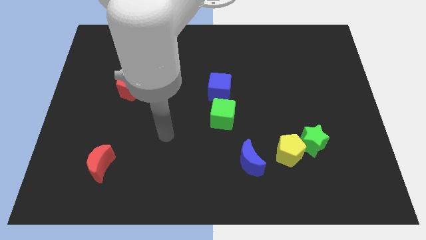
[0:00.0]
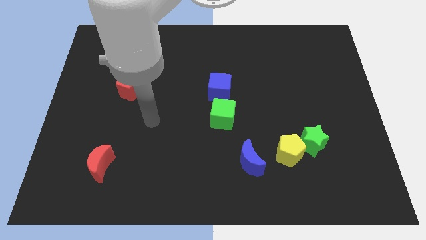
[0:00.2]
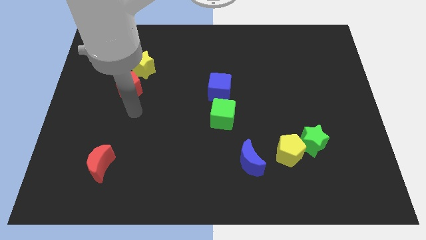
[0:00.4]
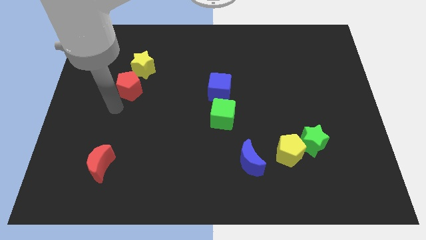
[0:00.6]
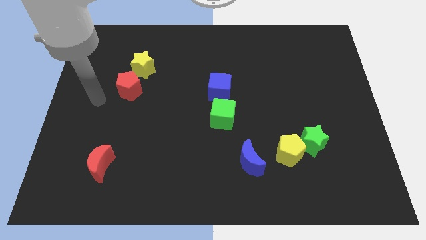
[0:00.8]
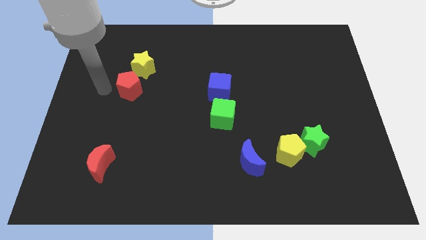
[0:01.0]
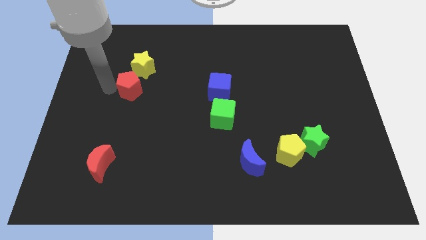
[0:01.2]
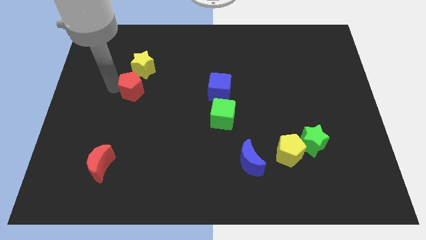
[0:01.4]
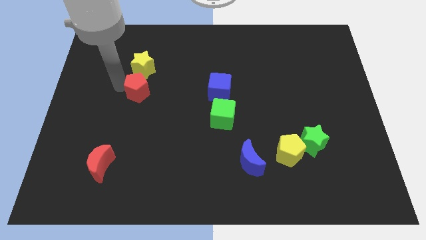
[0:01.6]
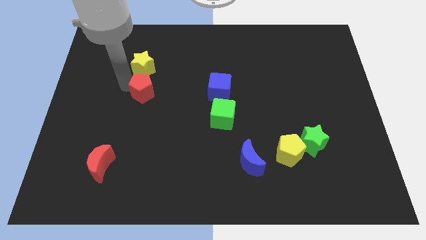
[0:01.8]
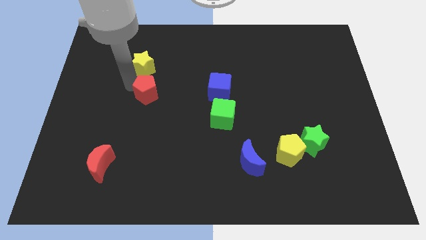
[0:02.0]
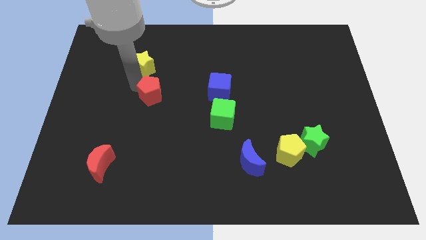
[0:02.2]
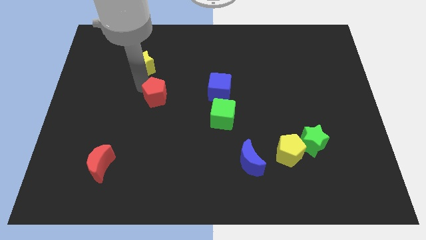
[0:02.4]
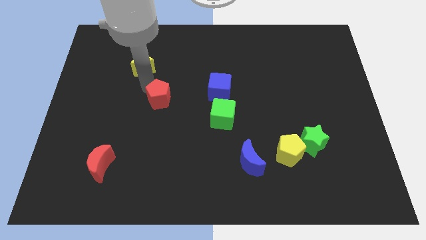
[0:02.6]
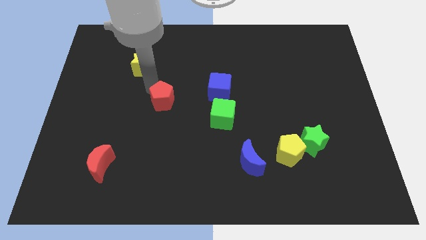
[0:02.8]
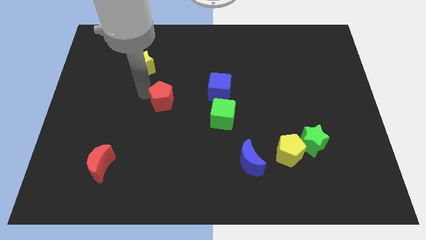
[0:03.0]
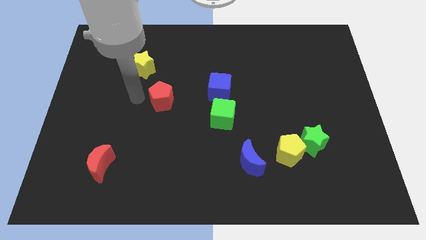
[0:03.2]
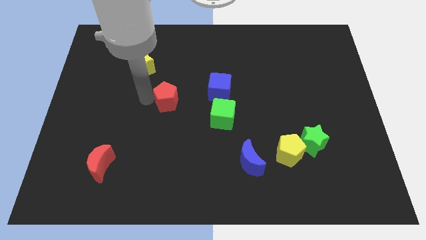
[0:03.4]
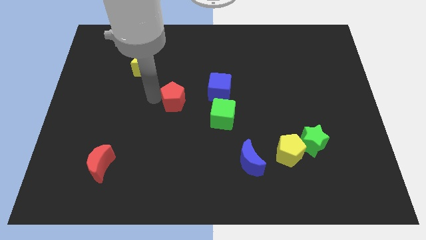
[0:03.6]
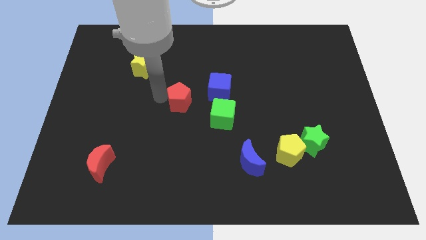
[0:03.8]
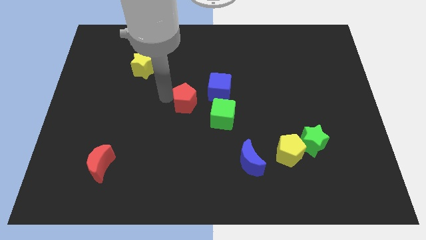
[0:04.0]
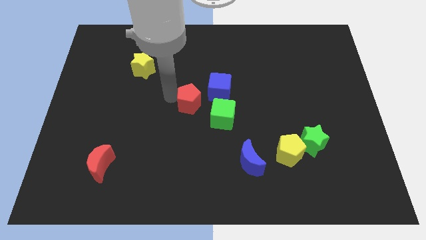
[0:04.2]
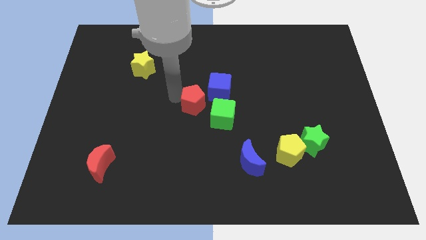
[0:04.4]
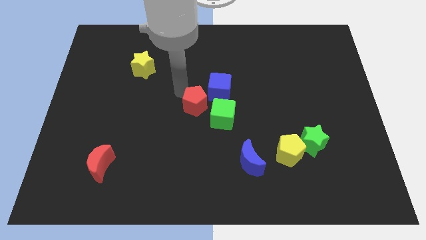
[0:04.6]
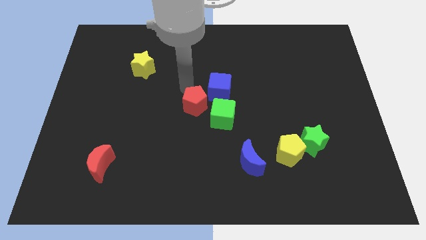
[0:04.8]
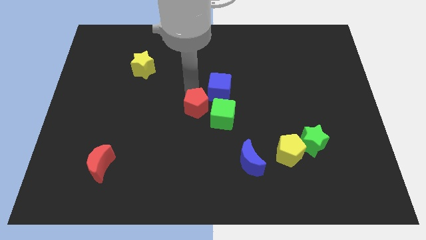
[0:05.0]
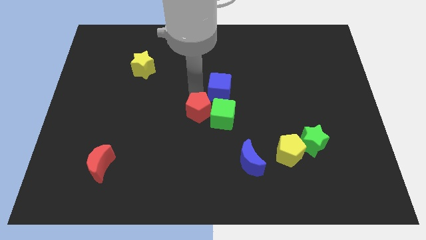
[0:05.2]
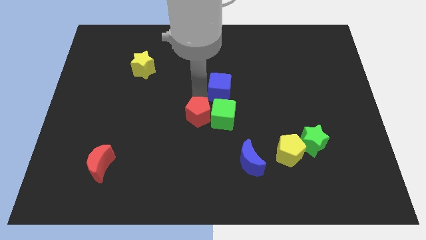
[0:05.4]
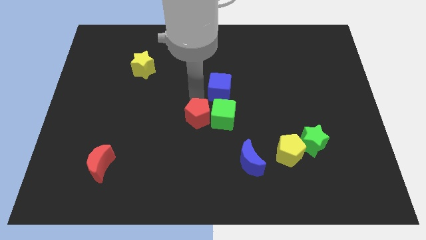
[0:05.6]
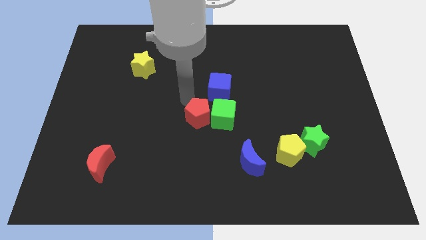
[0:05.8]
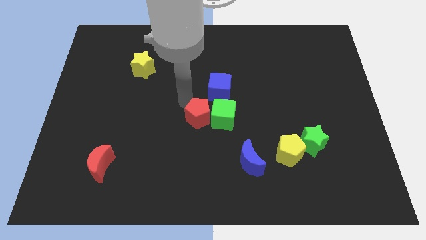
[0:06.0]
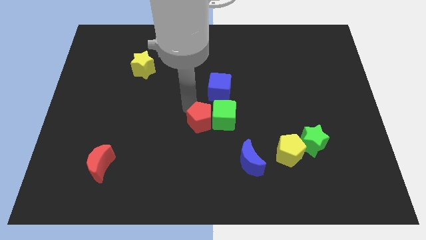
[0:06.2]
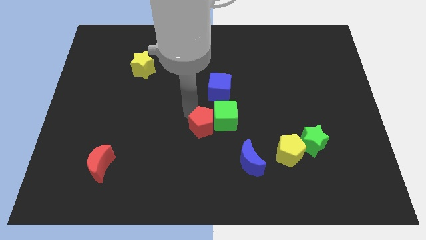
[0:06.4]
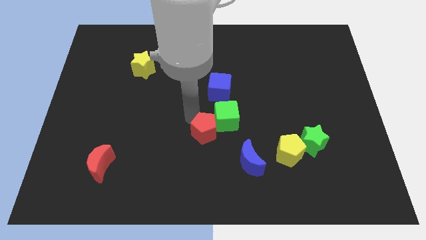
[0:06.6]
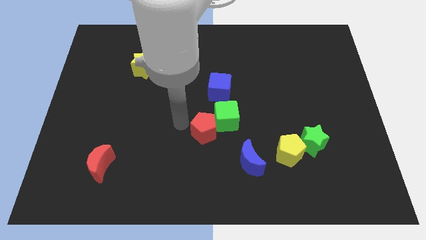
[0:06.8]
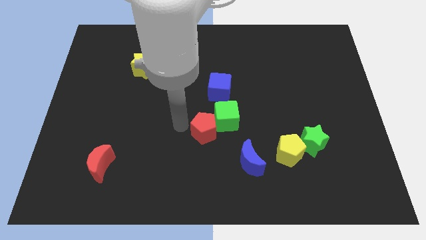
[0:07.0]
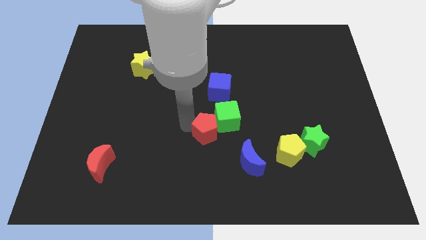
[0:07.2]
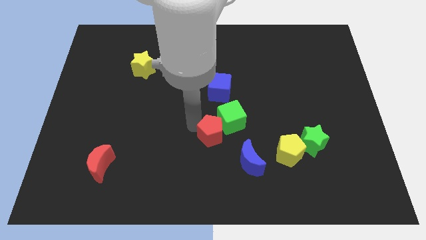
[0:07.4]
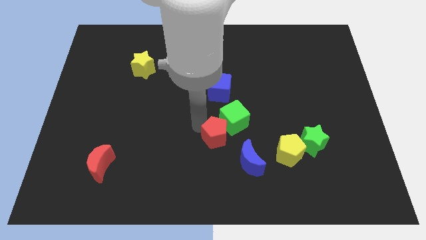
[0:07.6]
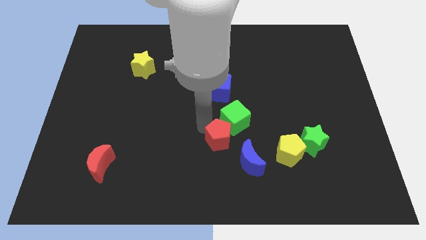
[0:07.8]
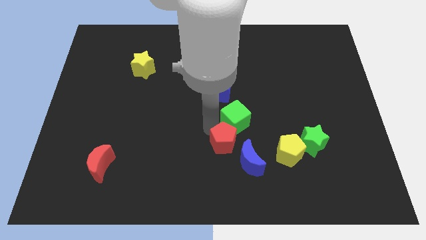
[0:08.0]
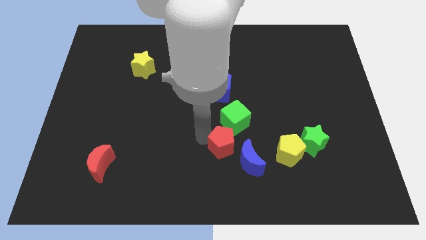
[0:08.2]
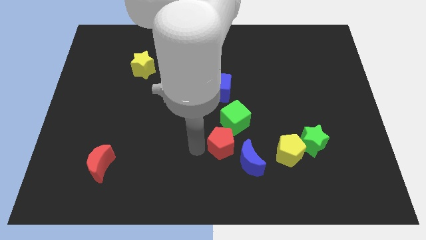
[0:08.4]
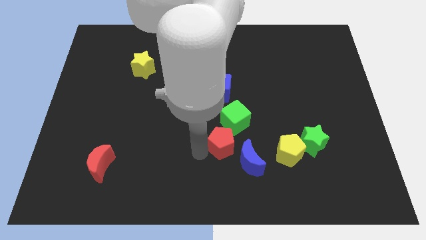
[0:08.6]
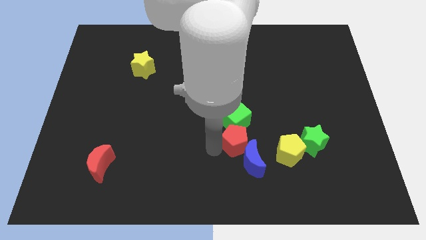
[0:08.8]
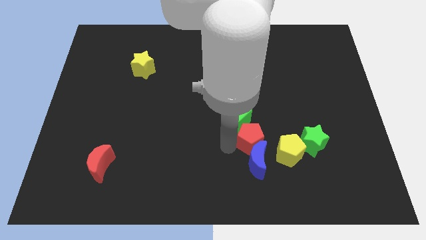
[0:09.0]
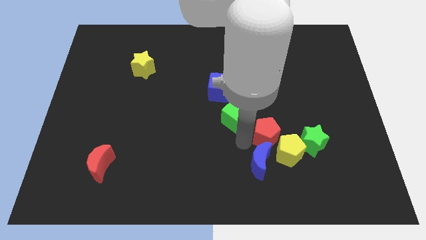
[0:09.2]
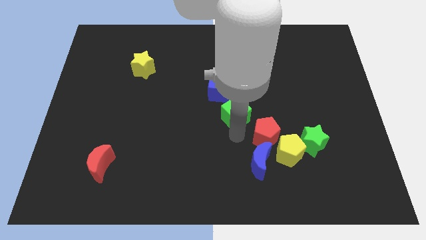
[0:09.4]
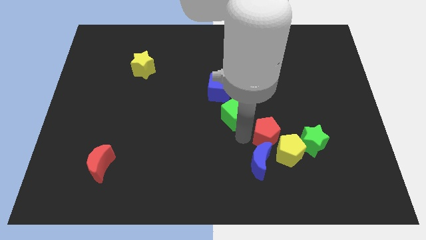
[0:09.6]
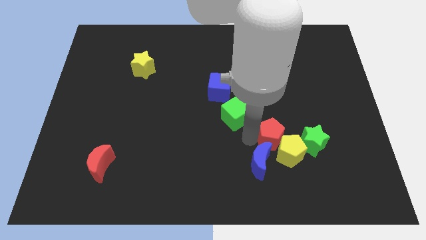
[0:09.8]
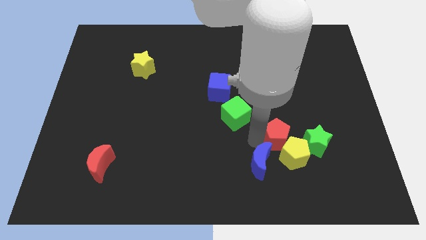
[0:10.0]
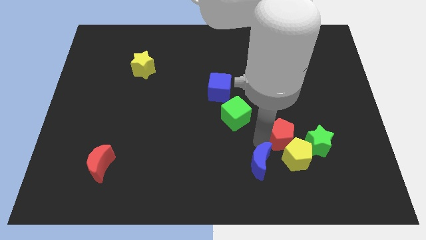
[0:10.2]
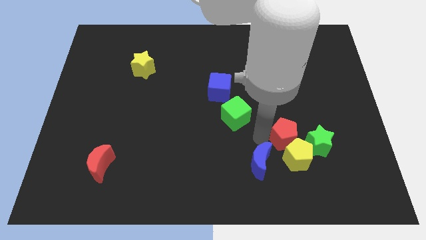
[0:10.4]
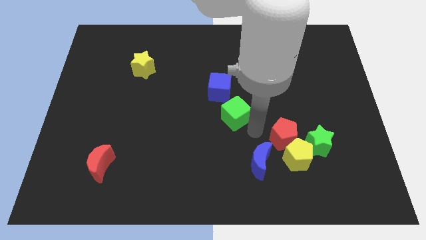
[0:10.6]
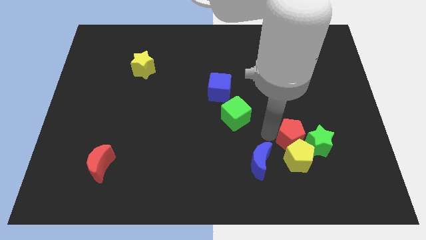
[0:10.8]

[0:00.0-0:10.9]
slide the red pentagon next to the green star
